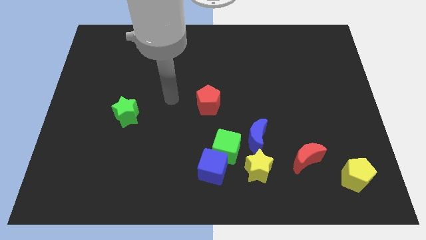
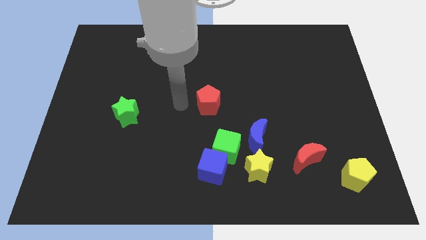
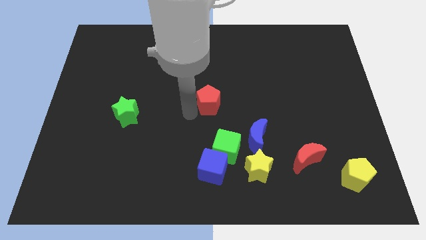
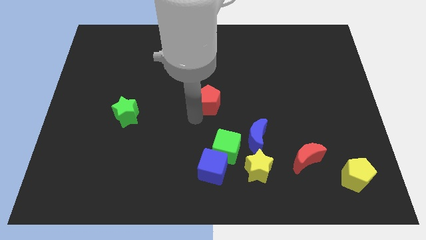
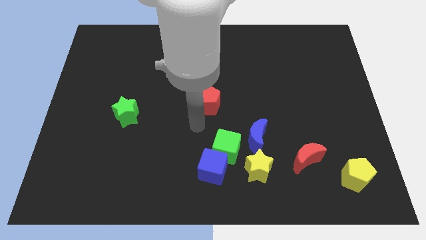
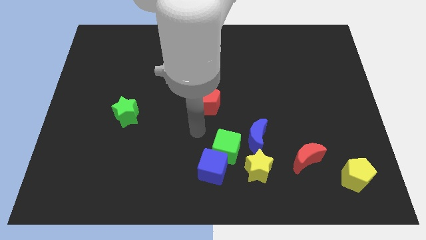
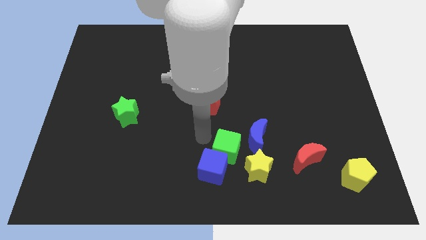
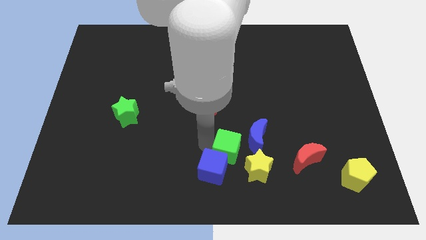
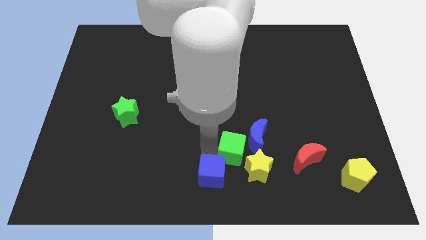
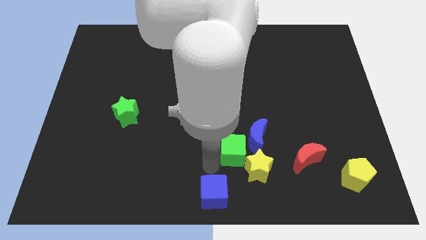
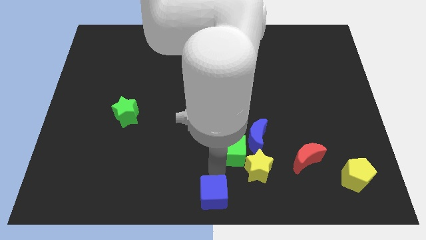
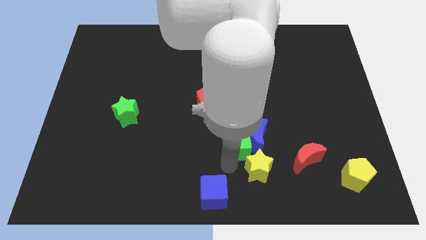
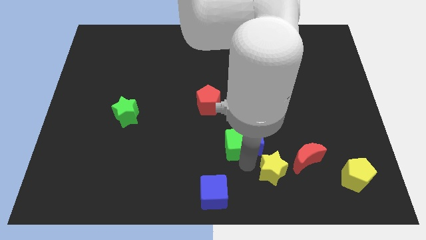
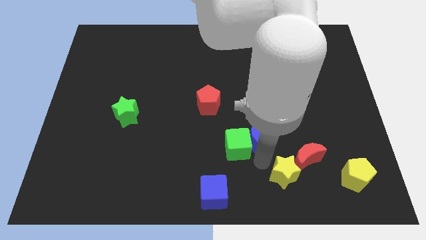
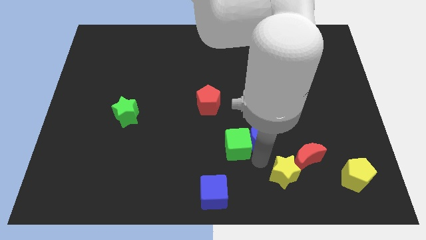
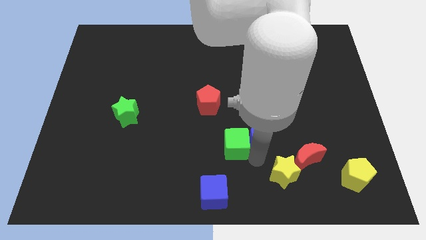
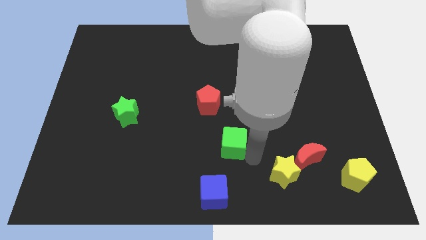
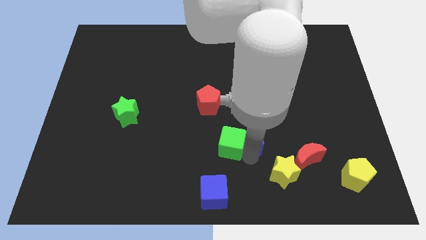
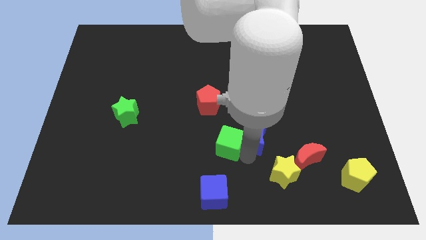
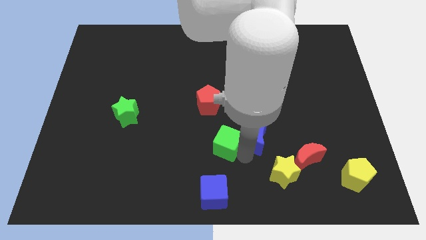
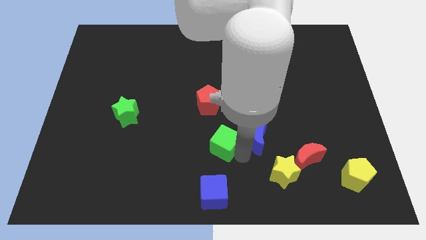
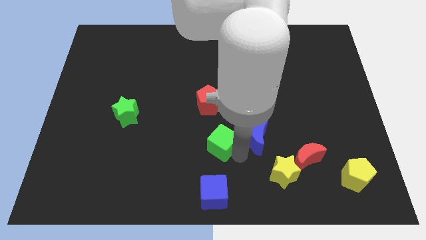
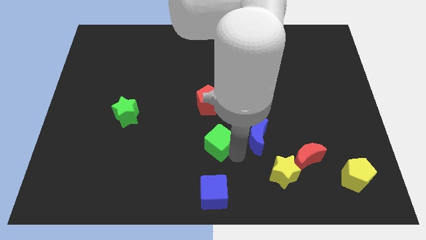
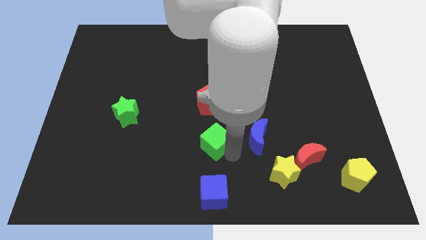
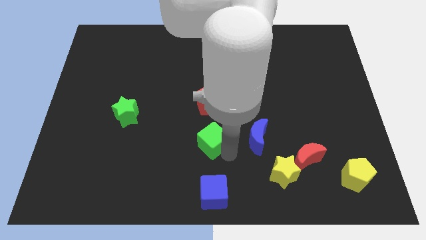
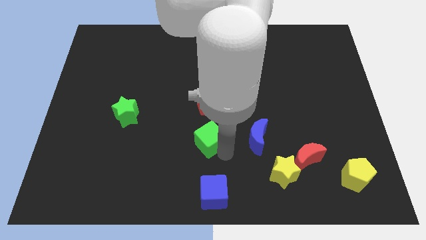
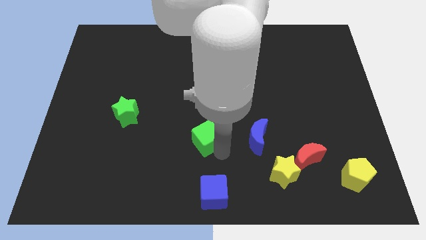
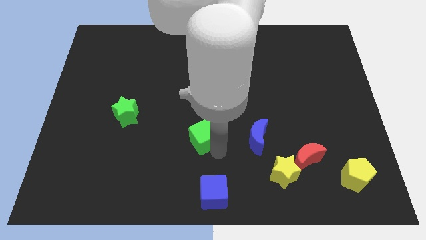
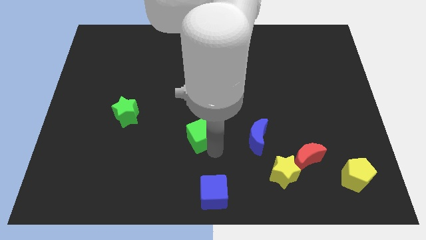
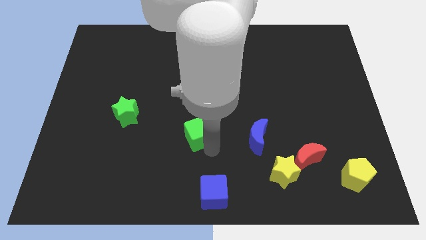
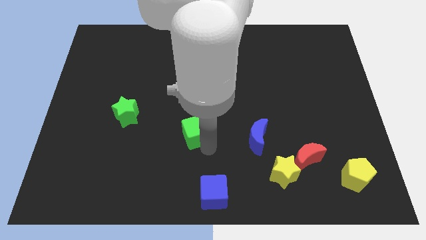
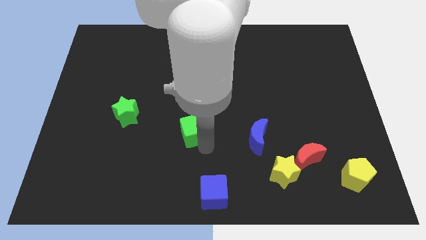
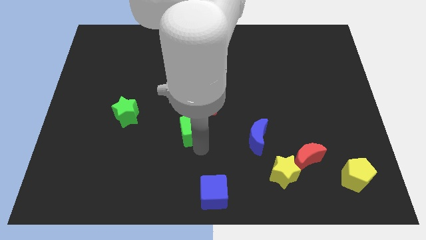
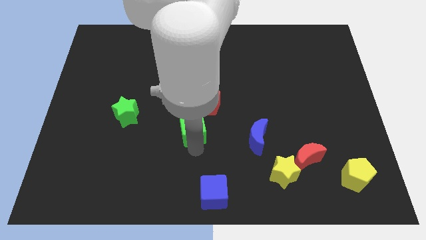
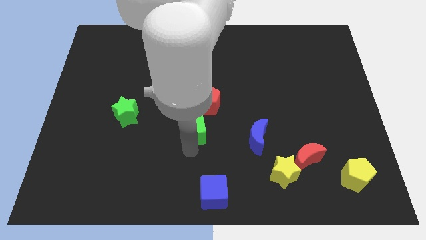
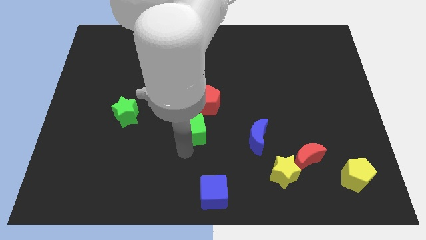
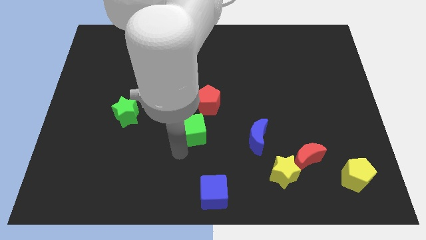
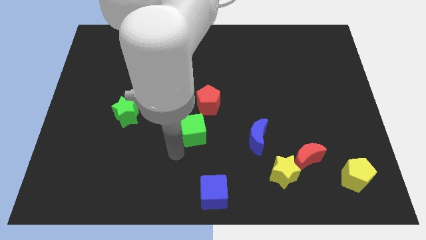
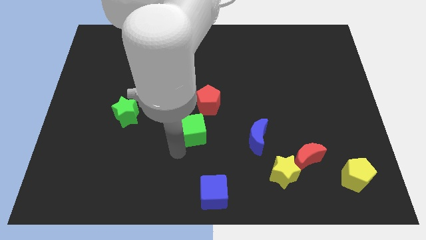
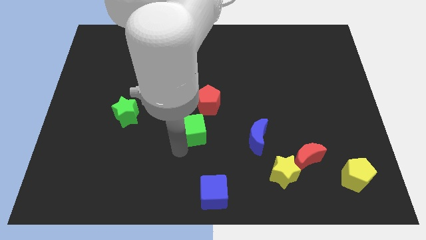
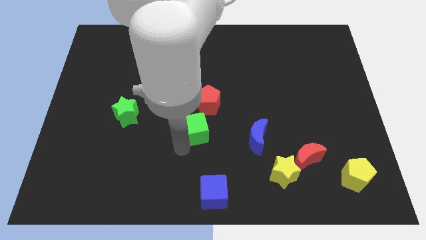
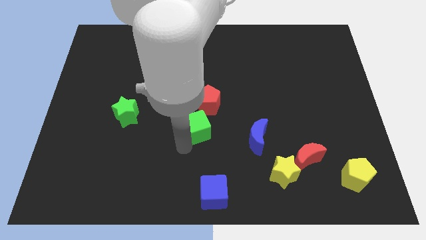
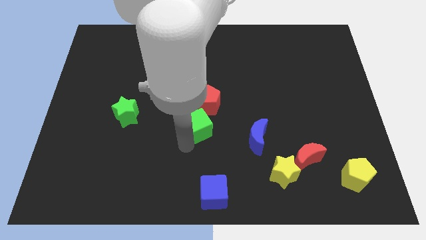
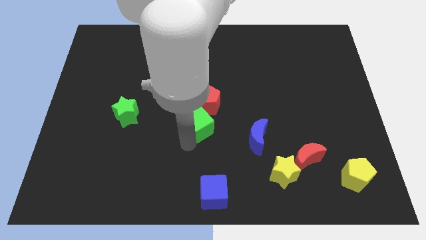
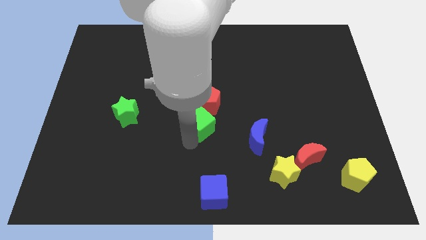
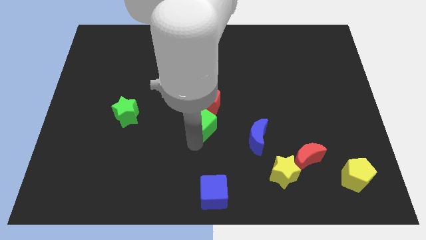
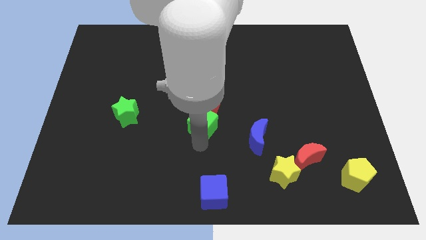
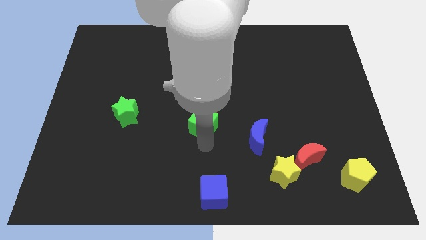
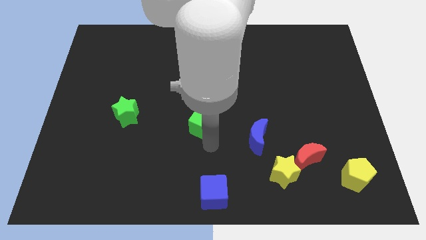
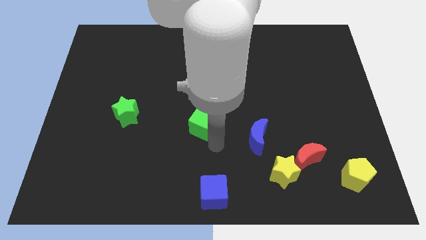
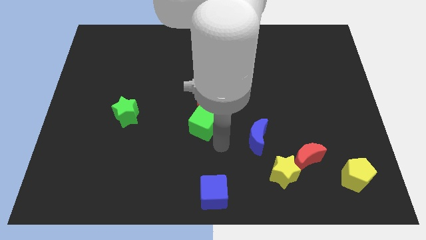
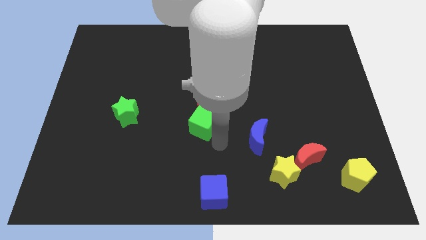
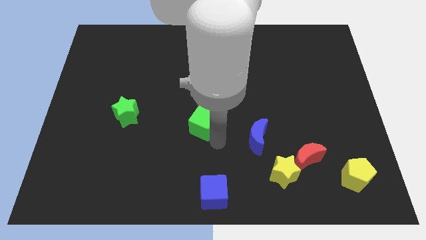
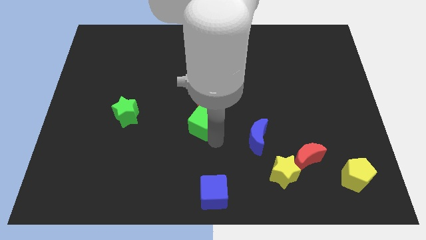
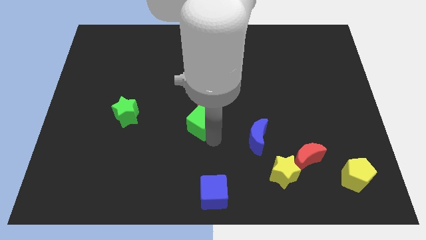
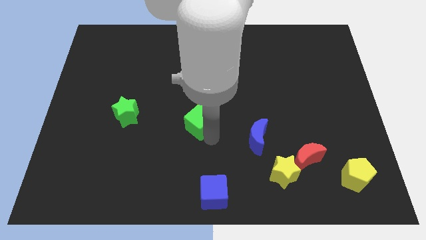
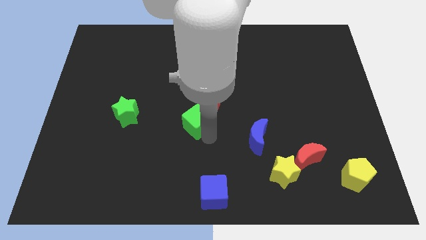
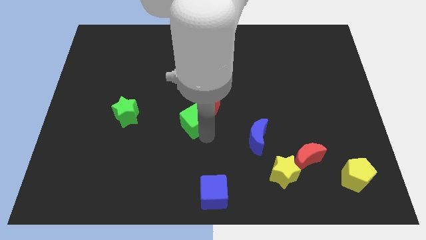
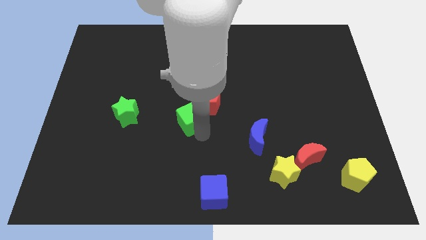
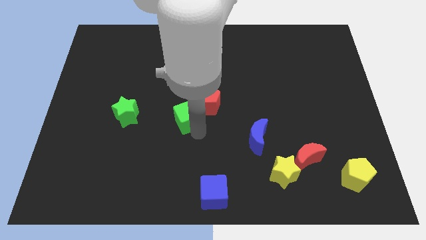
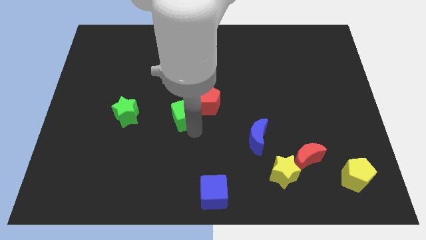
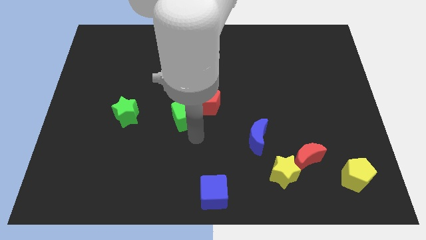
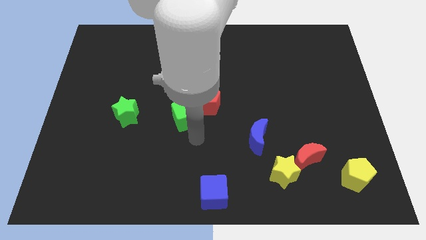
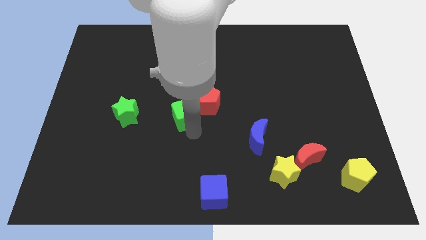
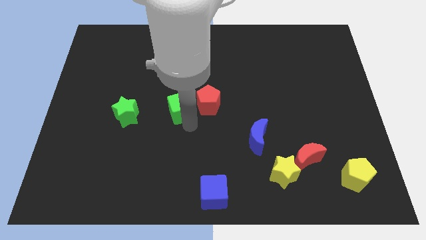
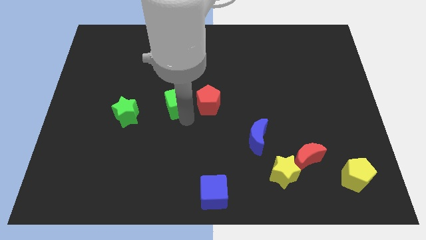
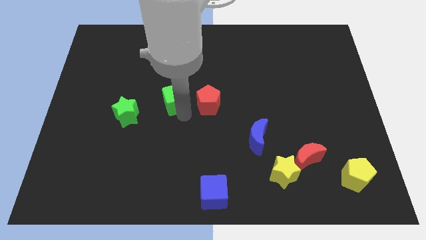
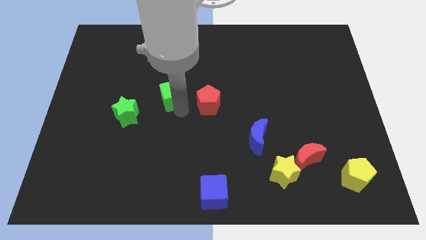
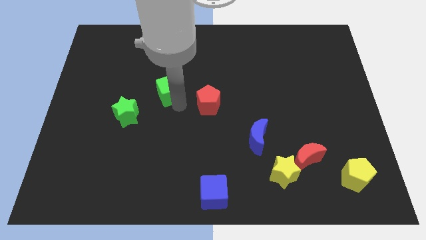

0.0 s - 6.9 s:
move the green cube up and left diagonally

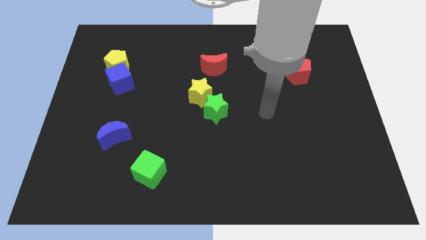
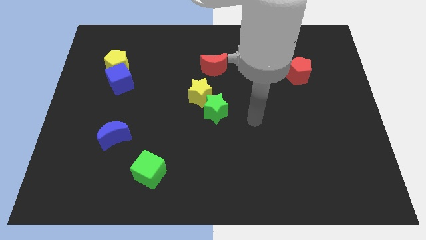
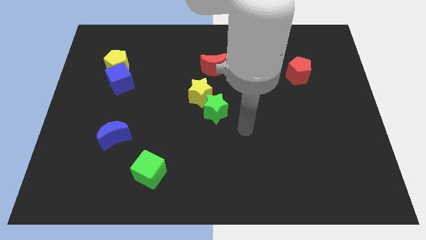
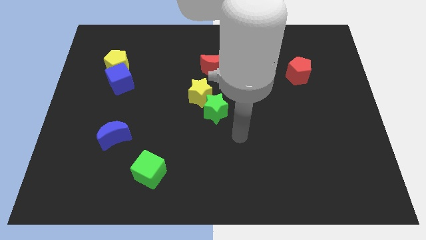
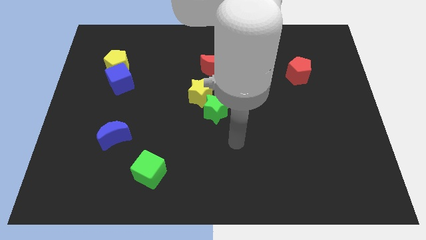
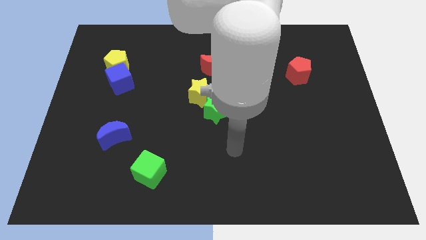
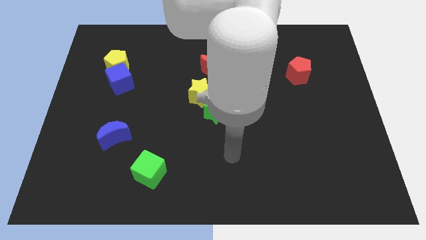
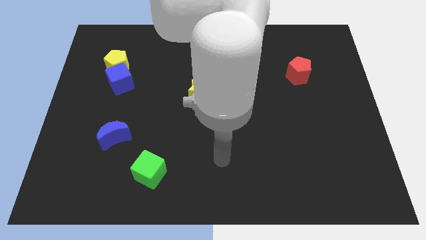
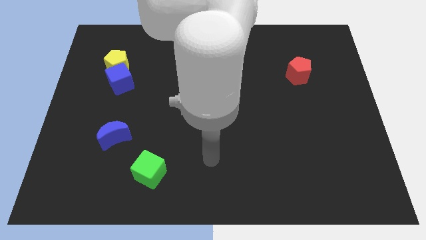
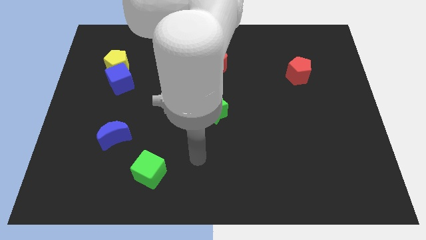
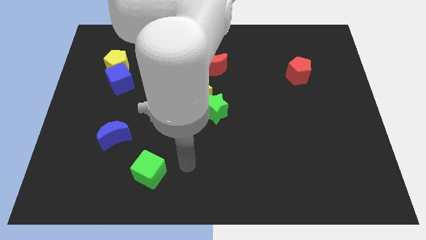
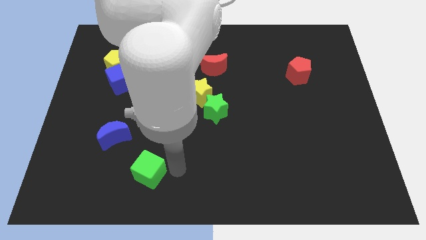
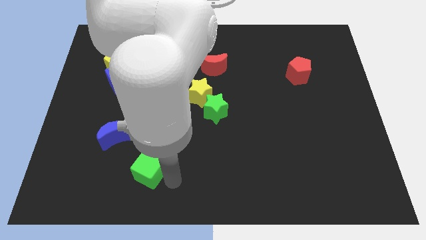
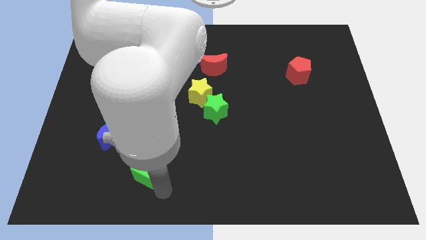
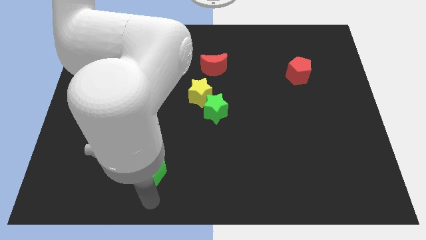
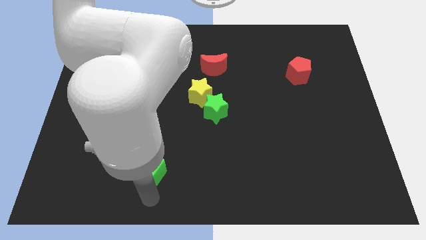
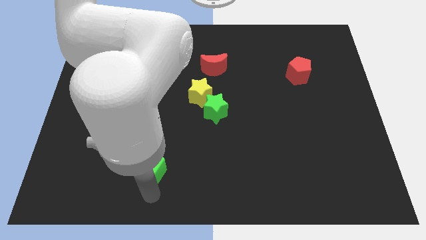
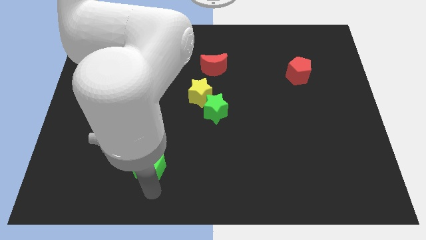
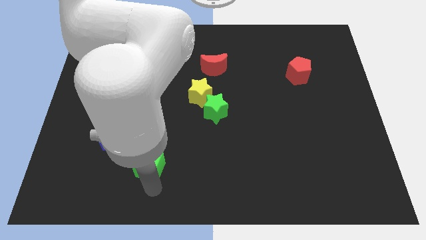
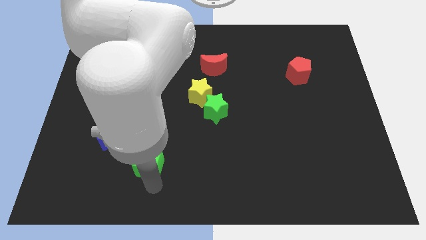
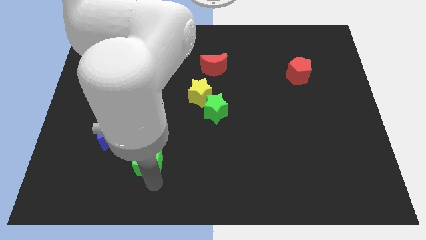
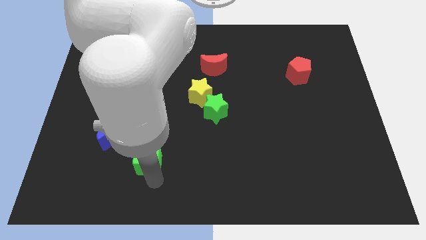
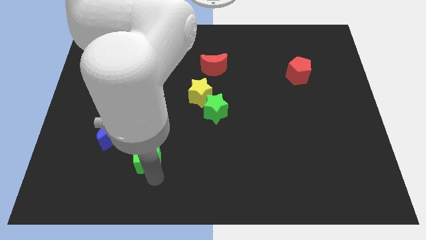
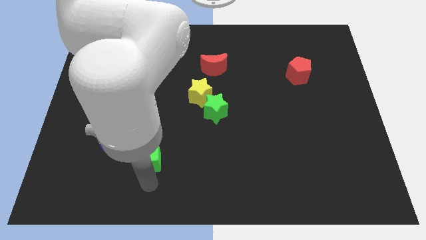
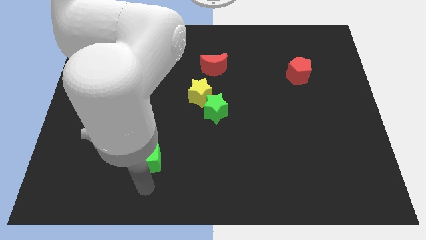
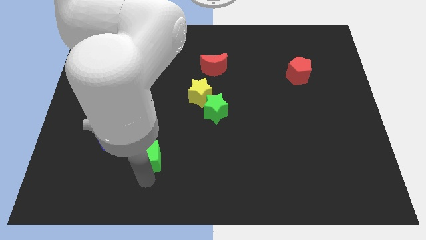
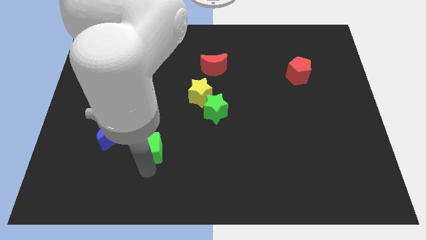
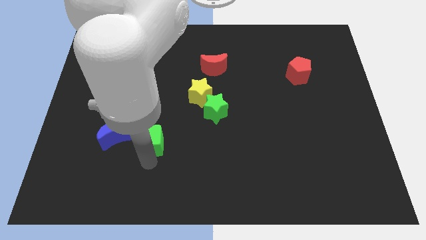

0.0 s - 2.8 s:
push the green cube somewhat up
